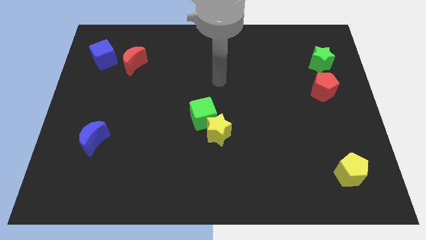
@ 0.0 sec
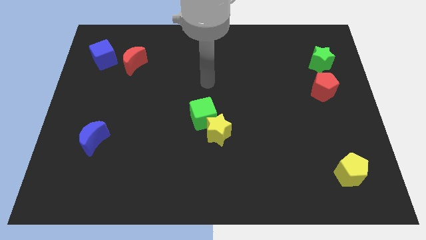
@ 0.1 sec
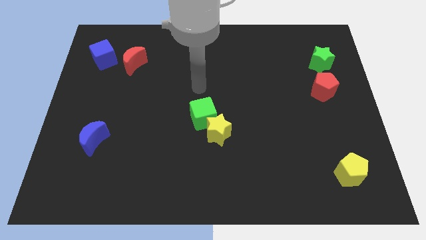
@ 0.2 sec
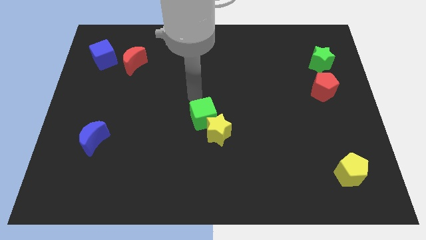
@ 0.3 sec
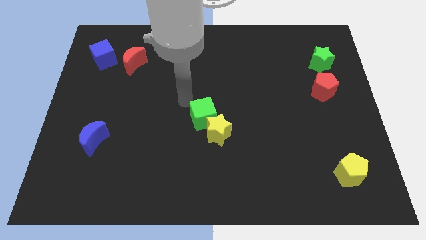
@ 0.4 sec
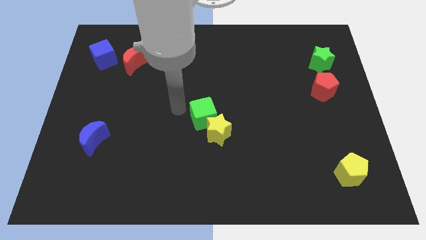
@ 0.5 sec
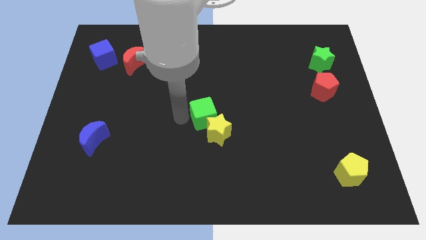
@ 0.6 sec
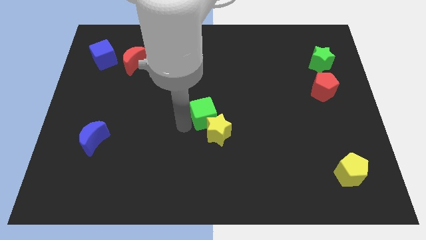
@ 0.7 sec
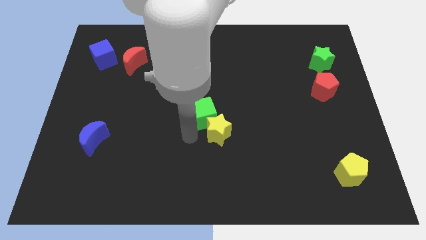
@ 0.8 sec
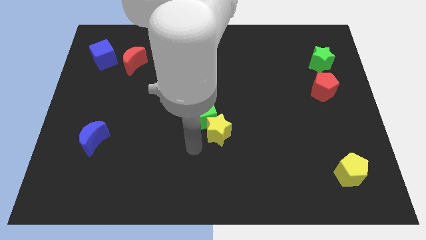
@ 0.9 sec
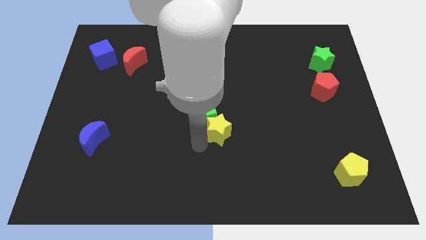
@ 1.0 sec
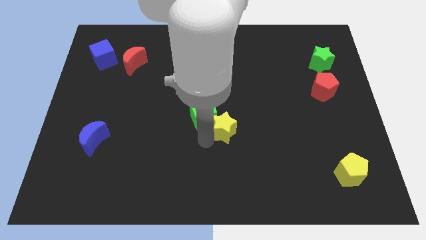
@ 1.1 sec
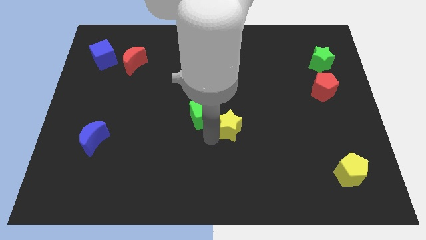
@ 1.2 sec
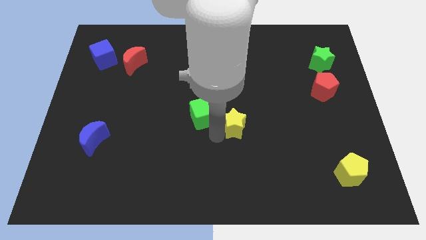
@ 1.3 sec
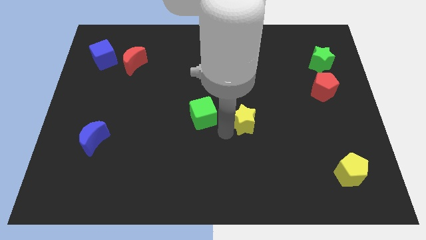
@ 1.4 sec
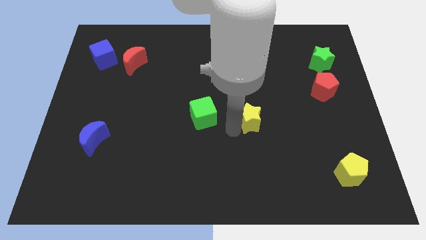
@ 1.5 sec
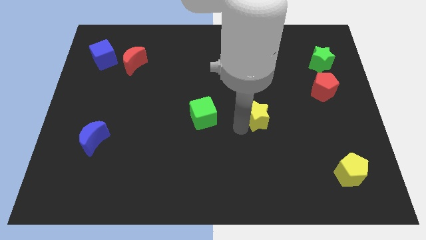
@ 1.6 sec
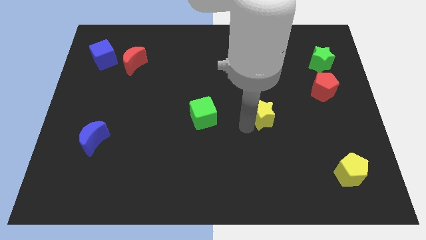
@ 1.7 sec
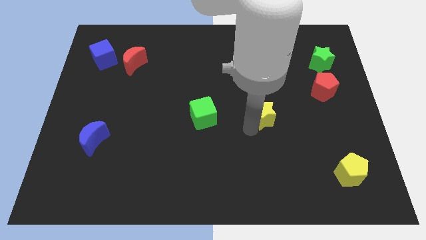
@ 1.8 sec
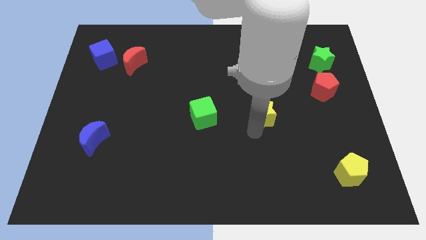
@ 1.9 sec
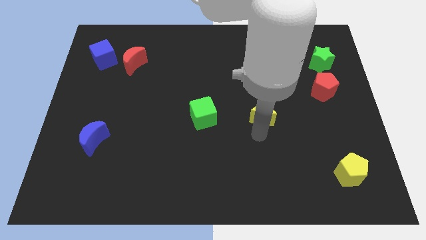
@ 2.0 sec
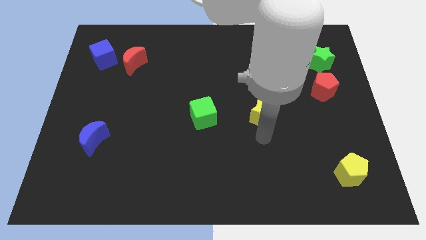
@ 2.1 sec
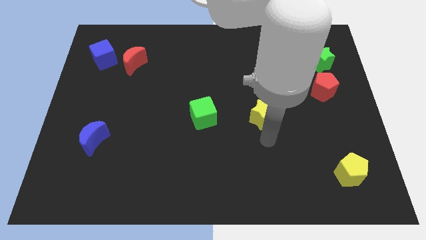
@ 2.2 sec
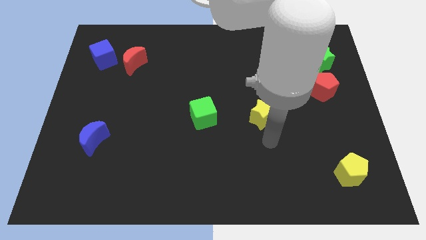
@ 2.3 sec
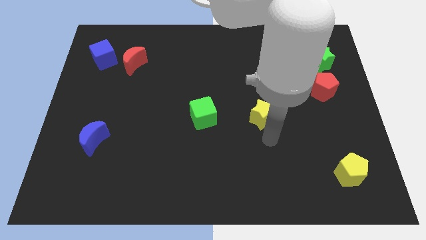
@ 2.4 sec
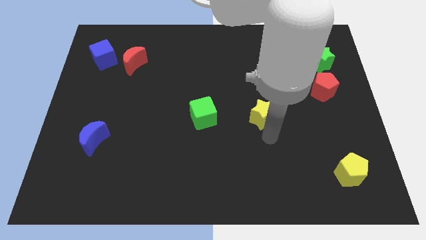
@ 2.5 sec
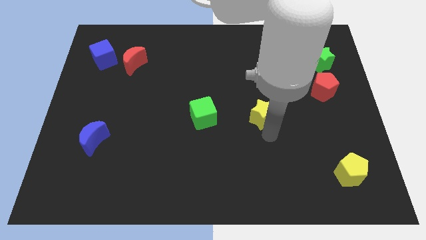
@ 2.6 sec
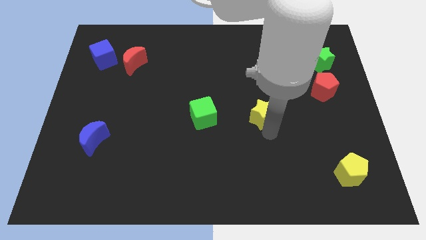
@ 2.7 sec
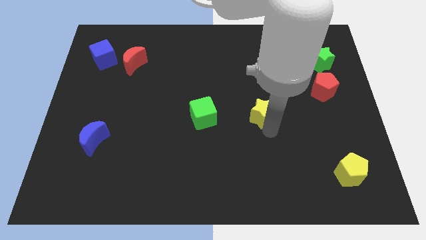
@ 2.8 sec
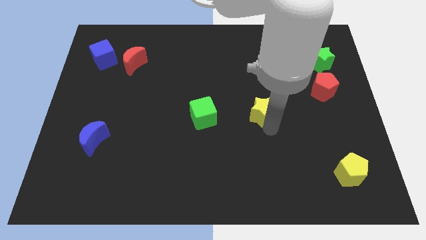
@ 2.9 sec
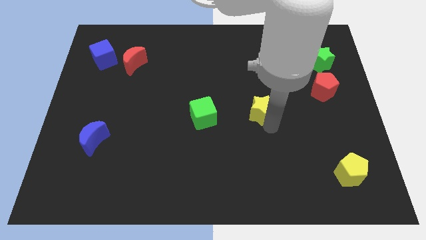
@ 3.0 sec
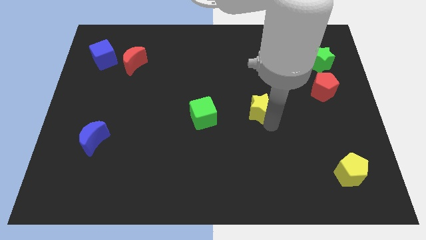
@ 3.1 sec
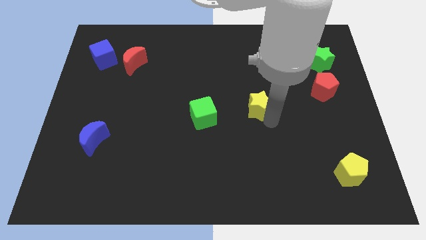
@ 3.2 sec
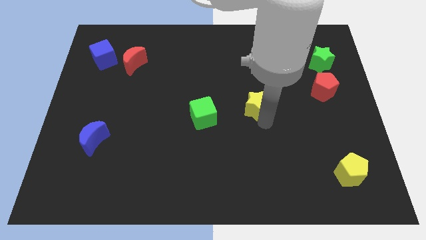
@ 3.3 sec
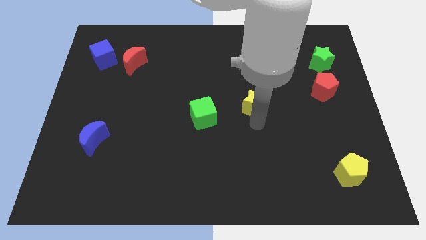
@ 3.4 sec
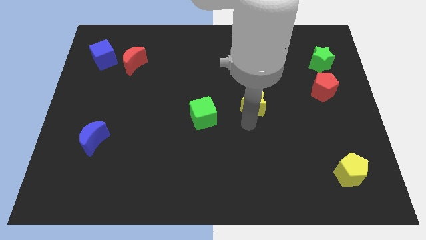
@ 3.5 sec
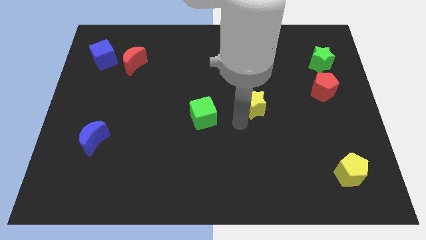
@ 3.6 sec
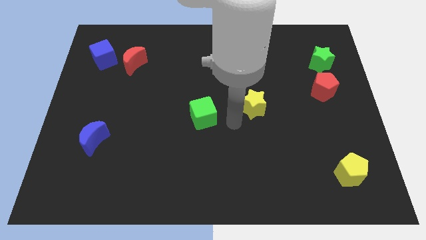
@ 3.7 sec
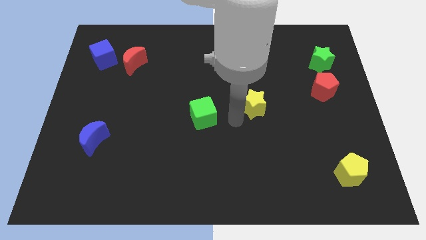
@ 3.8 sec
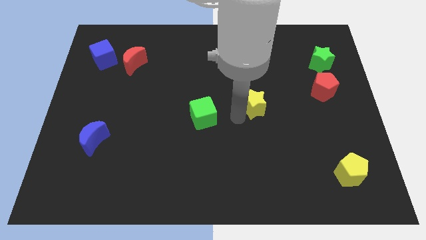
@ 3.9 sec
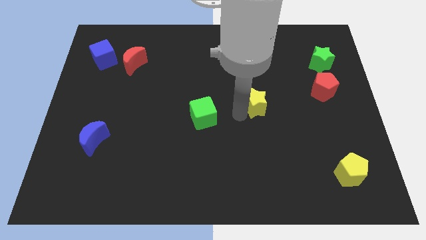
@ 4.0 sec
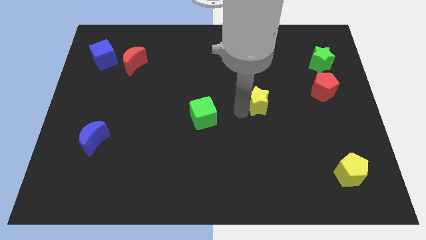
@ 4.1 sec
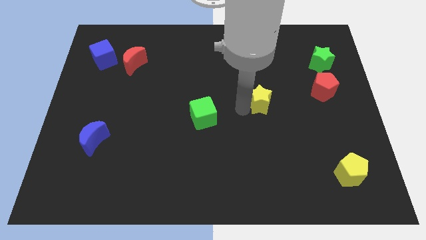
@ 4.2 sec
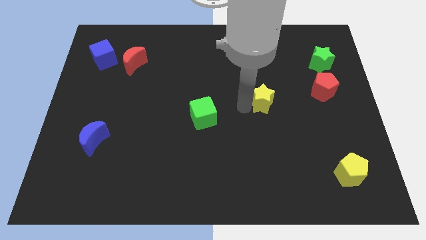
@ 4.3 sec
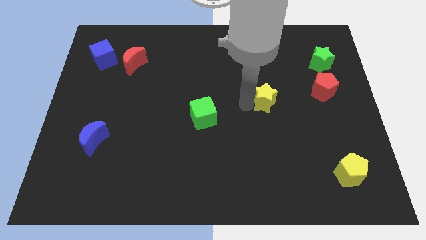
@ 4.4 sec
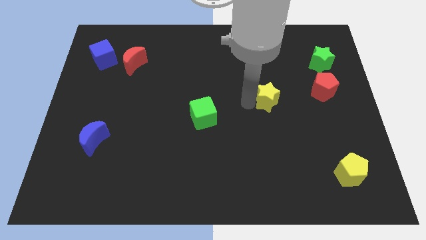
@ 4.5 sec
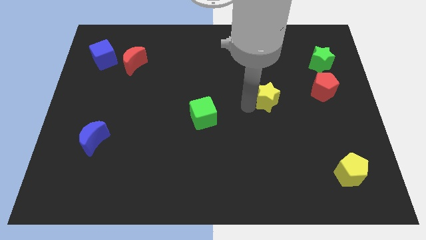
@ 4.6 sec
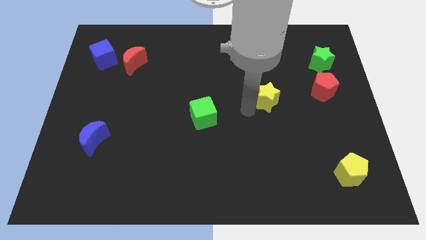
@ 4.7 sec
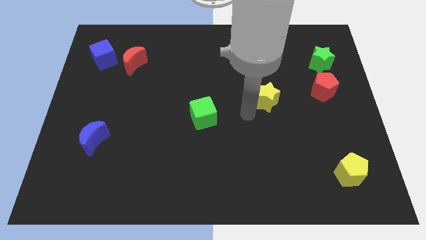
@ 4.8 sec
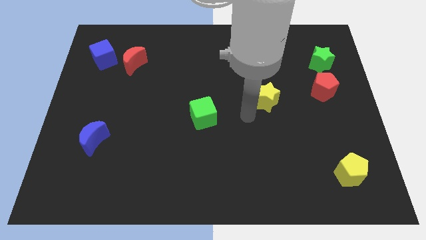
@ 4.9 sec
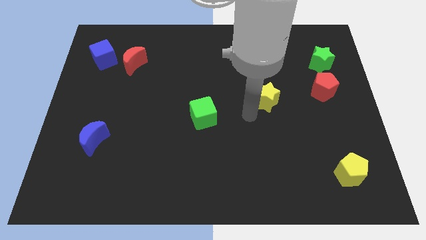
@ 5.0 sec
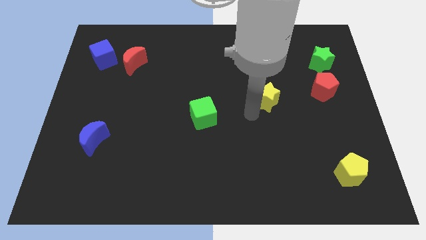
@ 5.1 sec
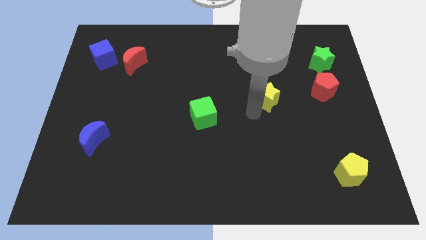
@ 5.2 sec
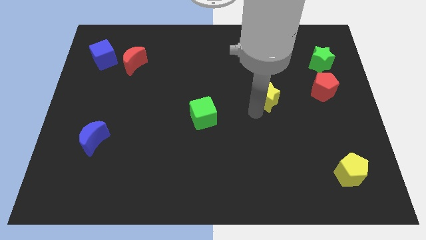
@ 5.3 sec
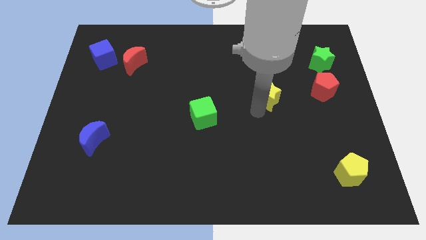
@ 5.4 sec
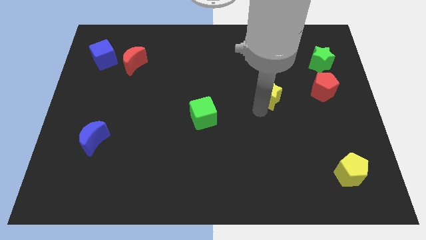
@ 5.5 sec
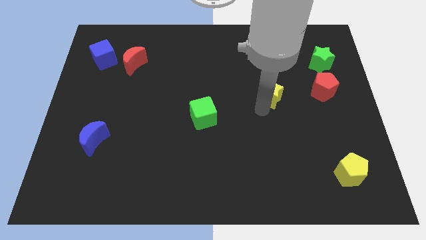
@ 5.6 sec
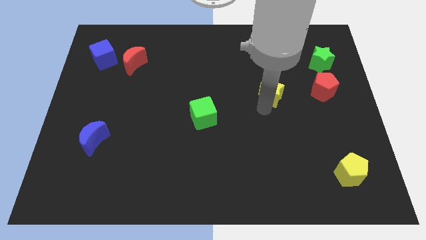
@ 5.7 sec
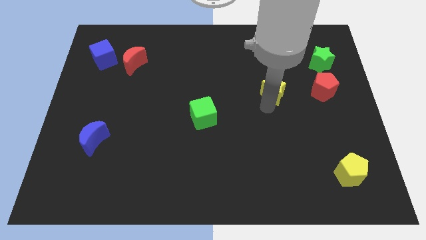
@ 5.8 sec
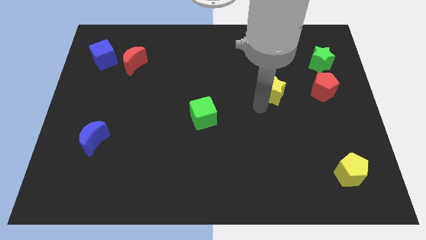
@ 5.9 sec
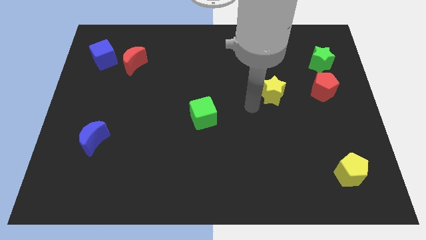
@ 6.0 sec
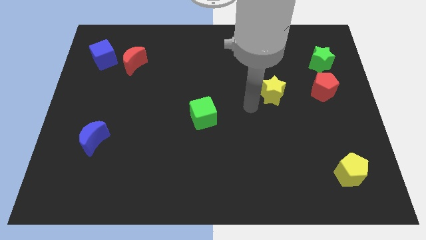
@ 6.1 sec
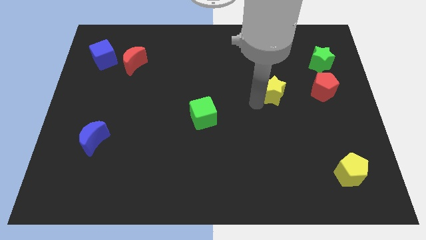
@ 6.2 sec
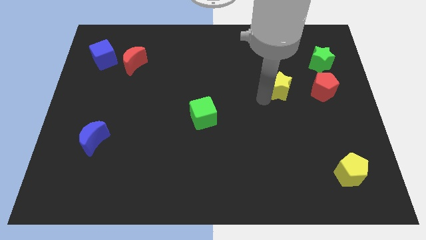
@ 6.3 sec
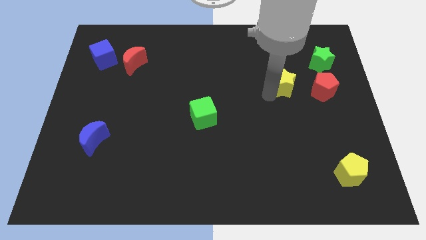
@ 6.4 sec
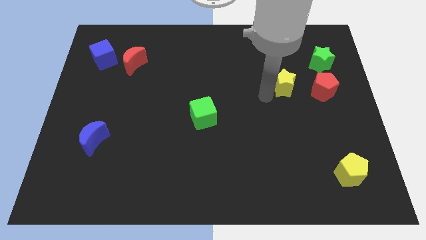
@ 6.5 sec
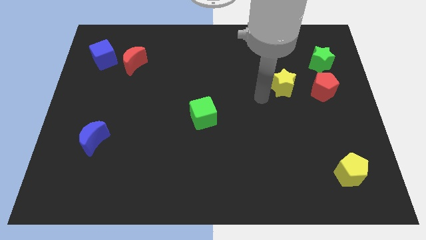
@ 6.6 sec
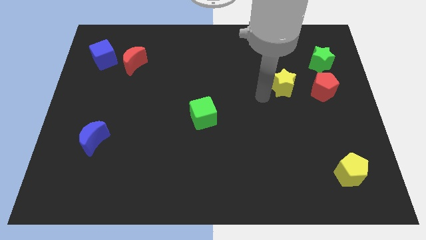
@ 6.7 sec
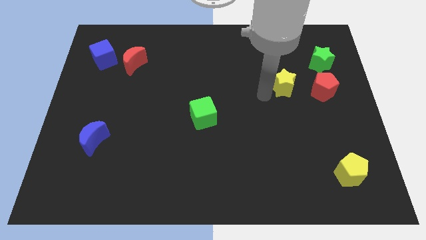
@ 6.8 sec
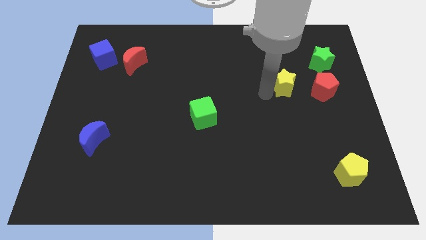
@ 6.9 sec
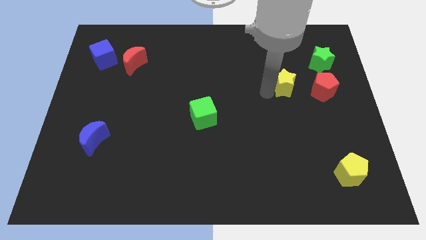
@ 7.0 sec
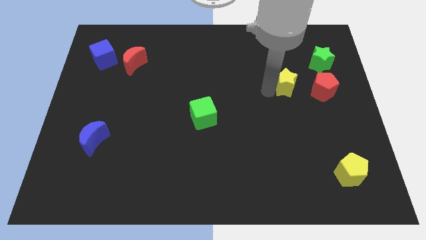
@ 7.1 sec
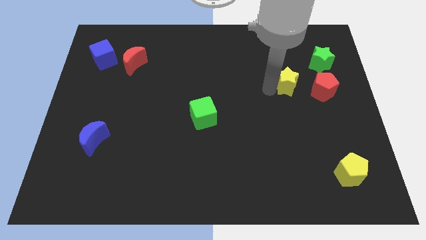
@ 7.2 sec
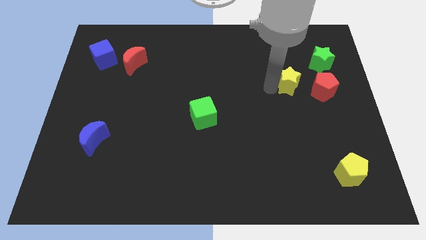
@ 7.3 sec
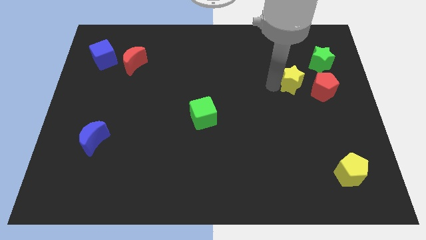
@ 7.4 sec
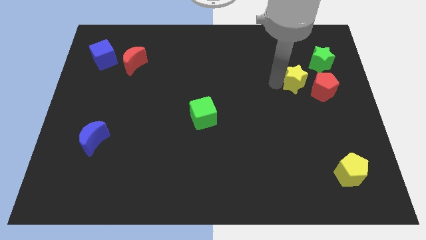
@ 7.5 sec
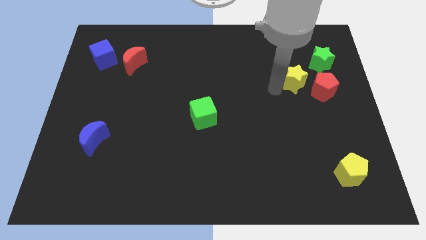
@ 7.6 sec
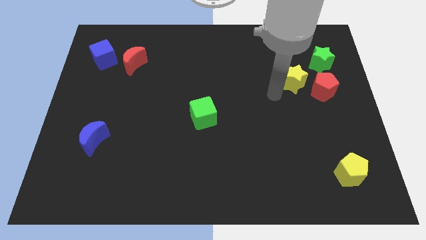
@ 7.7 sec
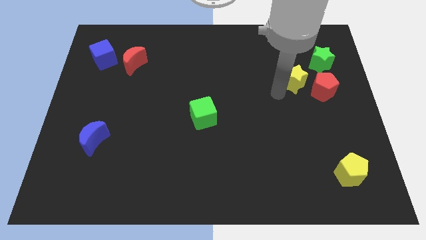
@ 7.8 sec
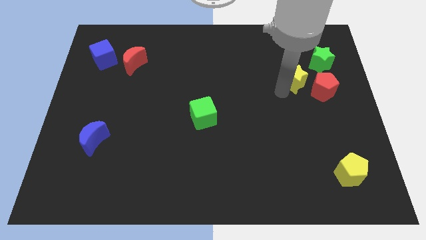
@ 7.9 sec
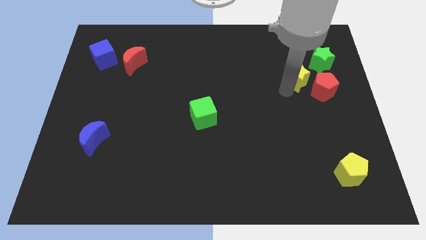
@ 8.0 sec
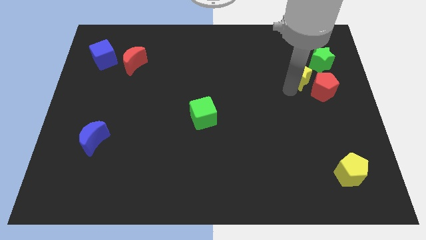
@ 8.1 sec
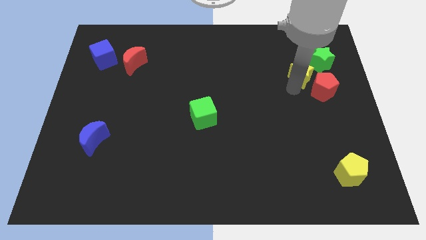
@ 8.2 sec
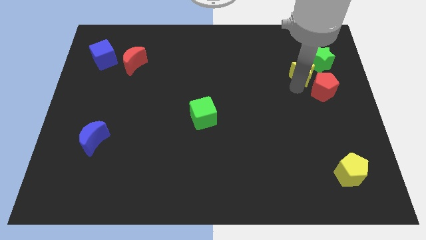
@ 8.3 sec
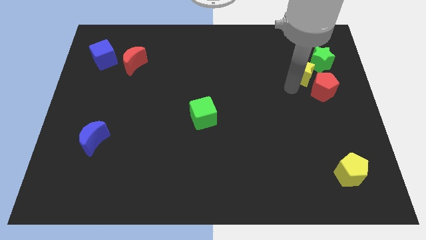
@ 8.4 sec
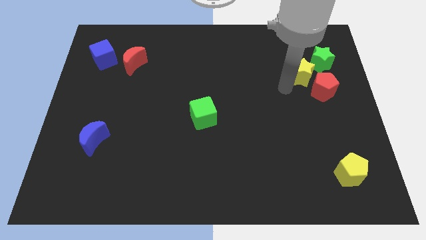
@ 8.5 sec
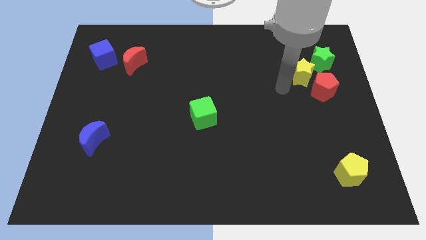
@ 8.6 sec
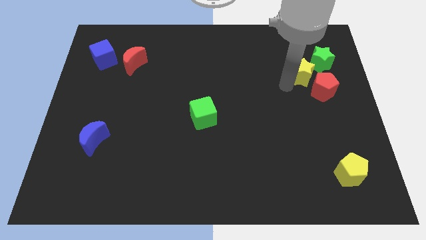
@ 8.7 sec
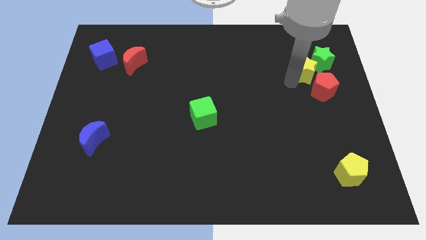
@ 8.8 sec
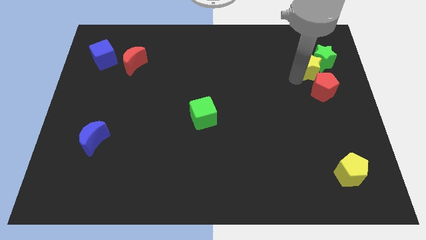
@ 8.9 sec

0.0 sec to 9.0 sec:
put the yellow star to the green star
